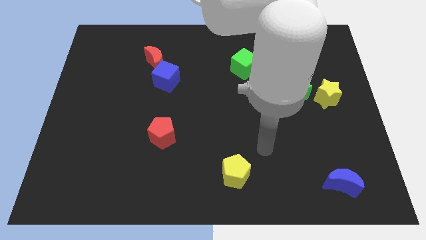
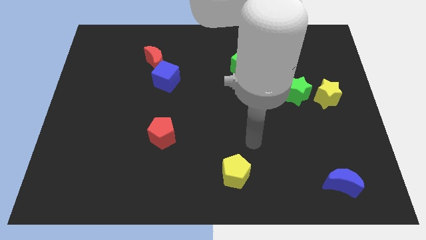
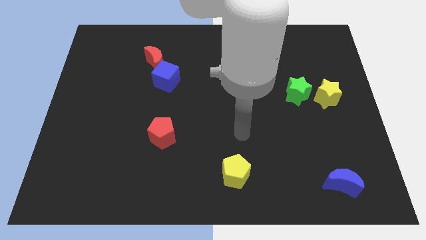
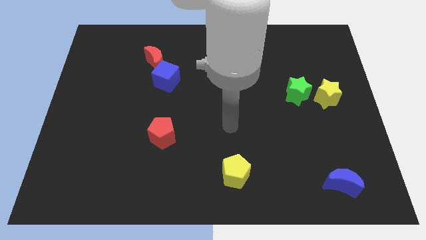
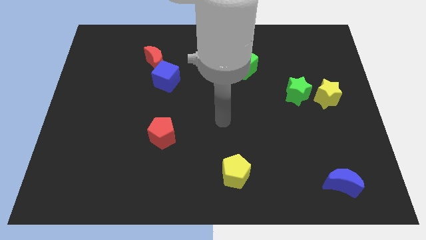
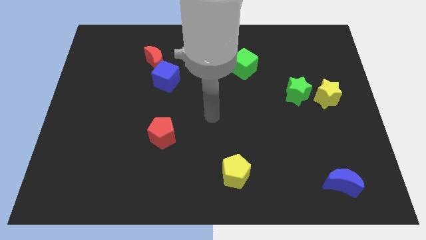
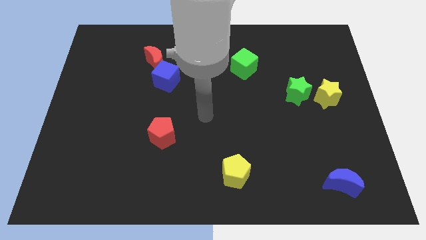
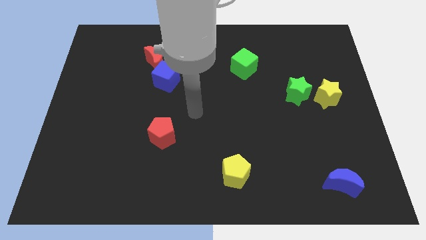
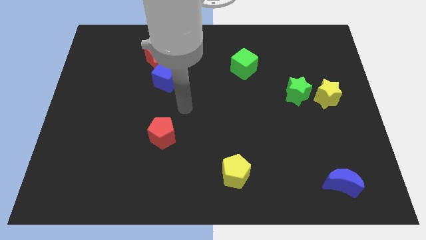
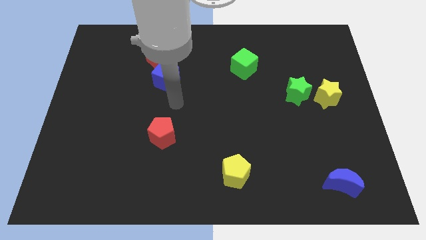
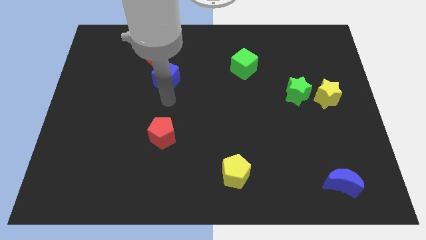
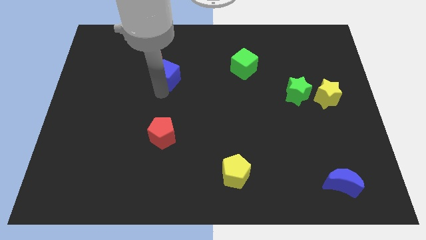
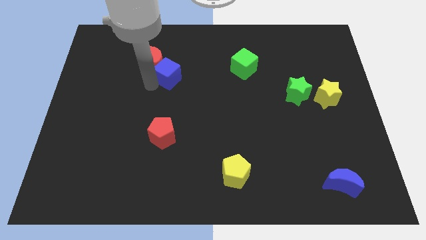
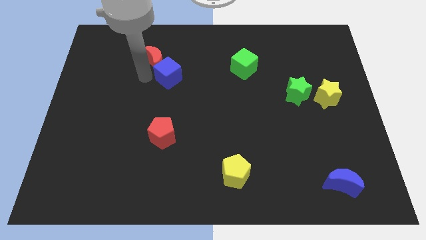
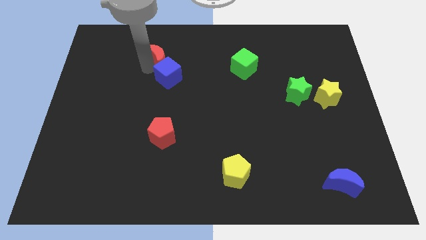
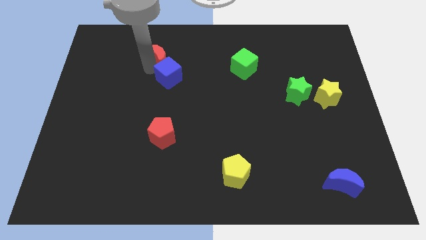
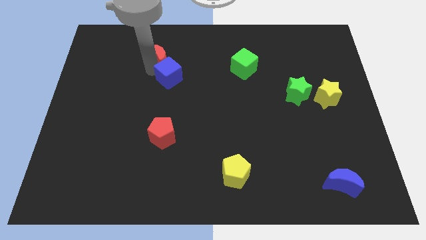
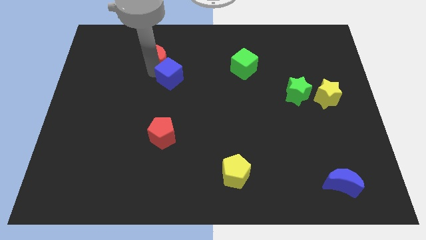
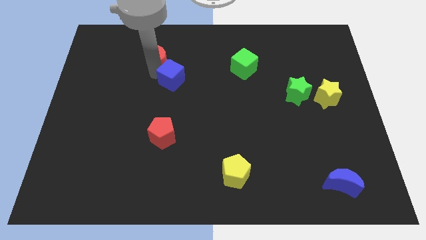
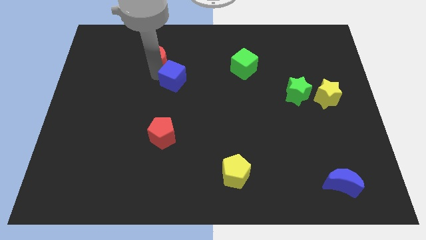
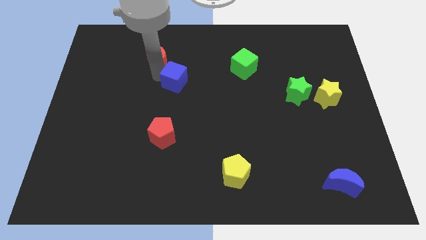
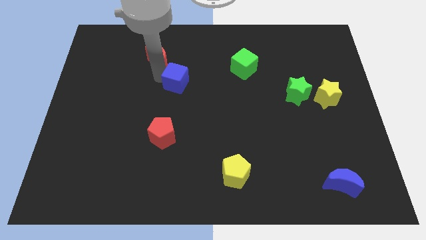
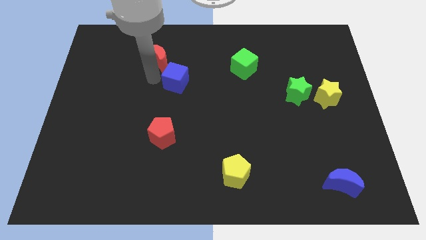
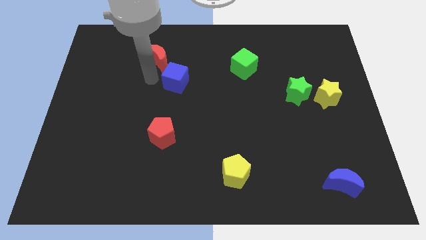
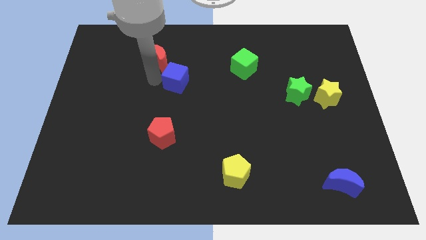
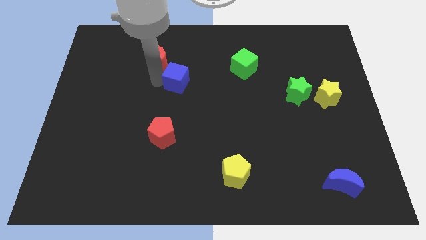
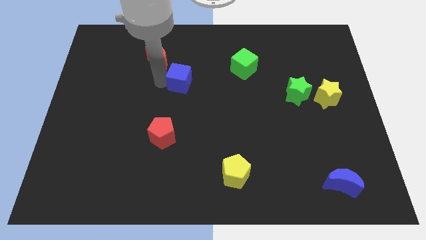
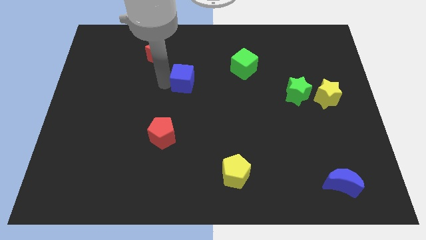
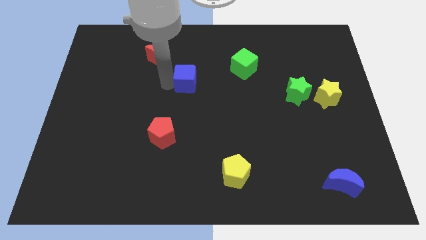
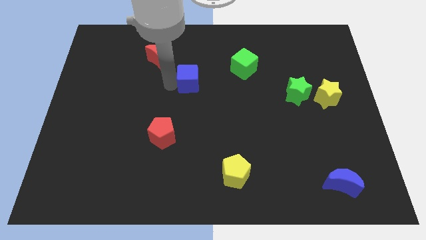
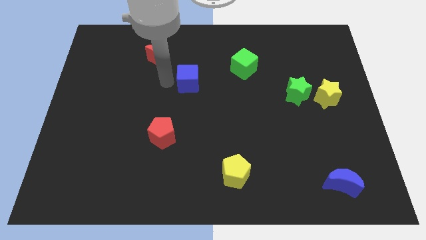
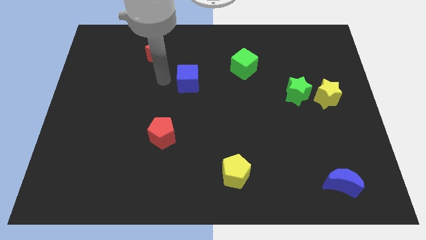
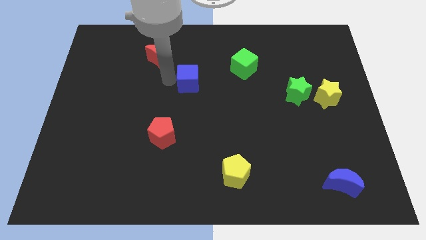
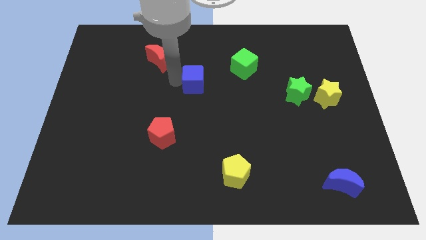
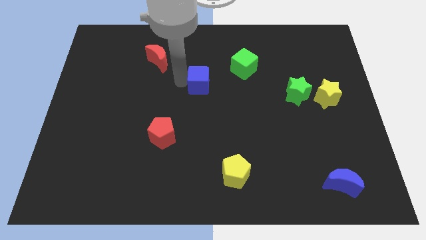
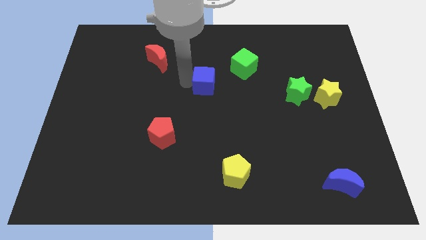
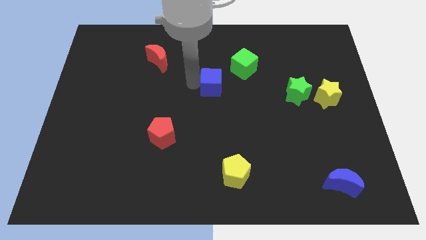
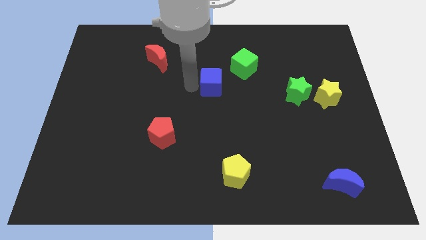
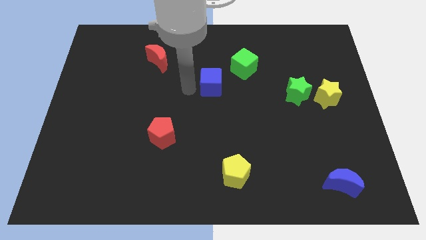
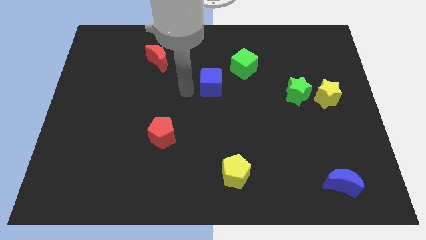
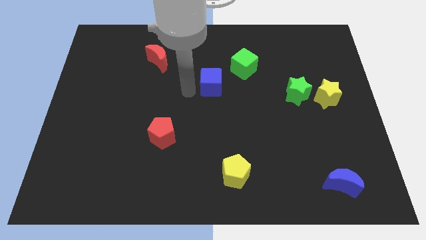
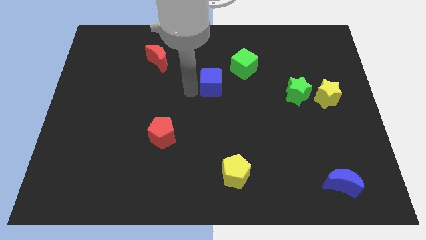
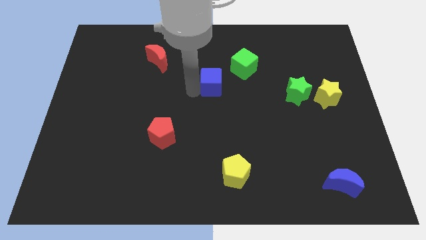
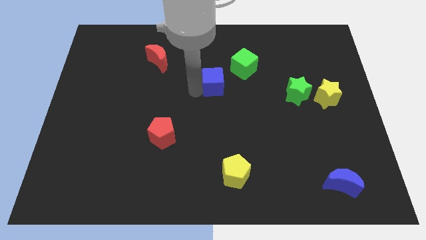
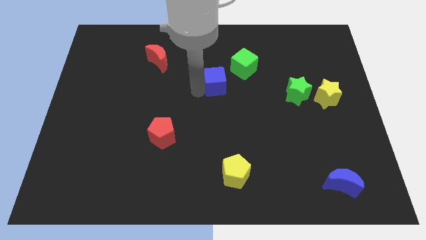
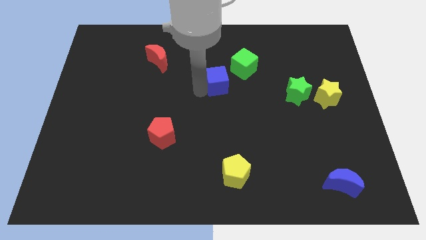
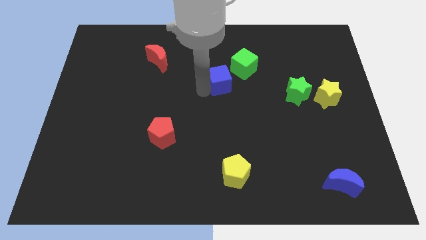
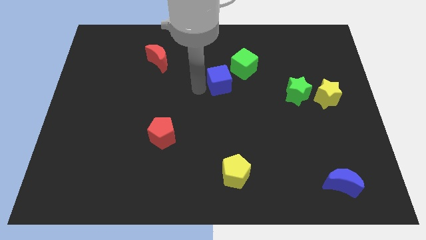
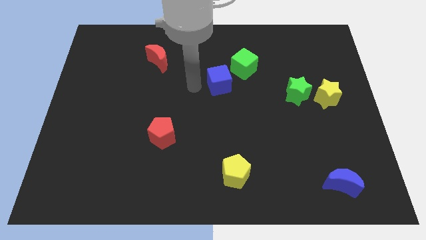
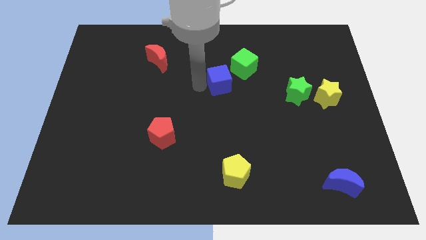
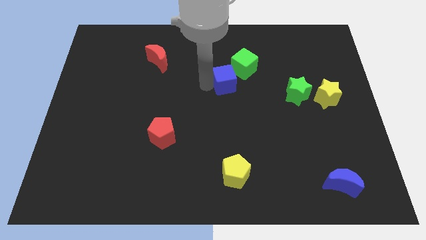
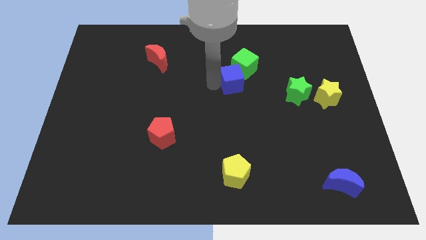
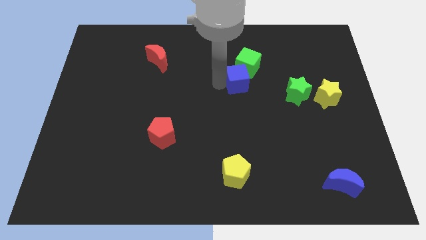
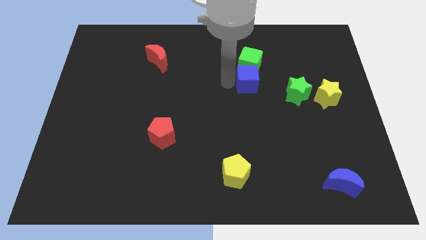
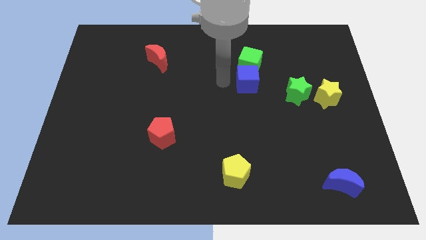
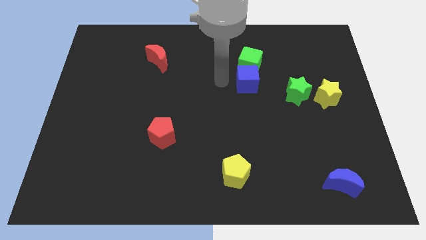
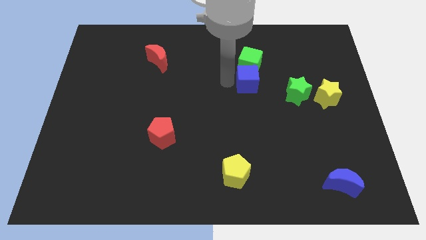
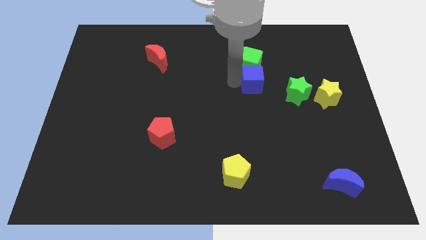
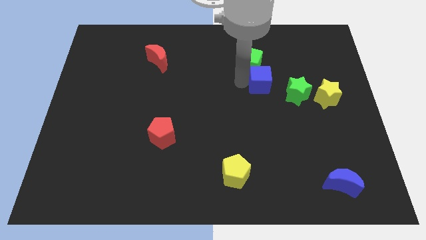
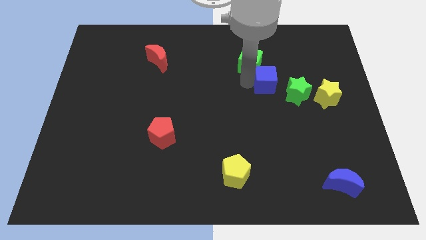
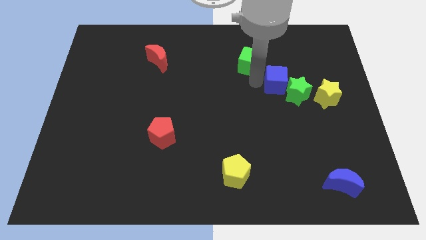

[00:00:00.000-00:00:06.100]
put the blue cube next to the green star

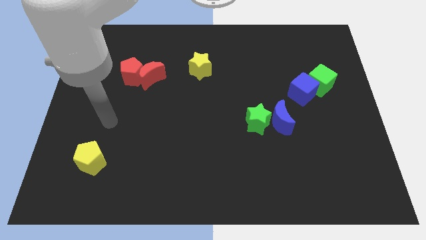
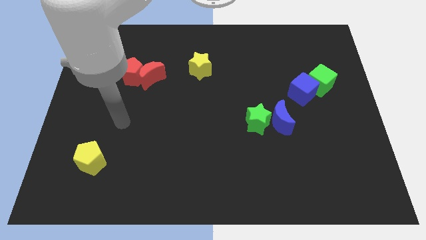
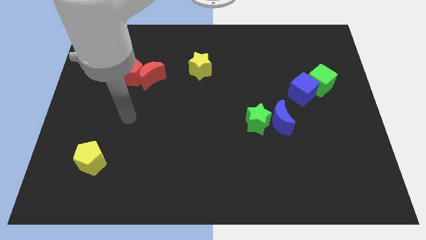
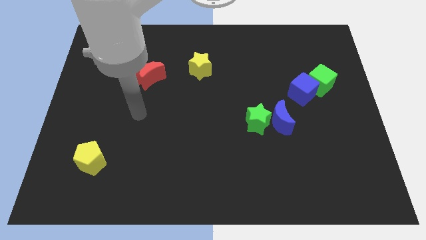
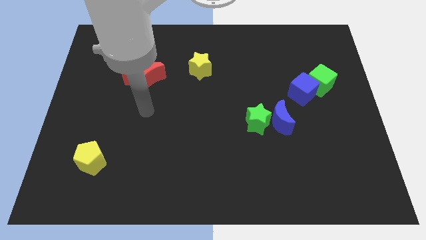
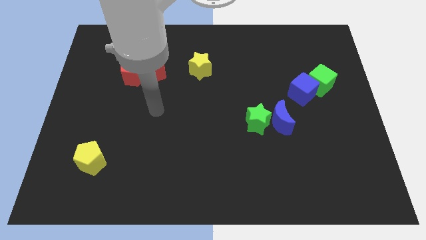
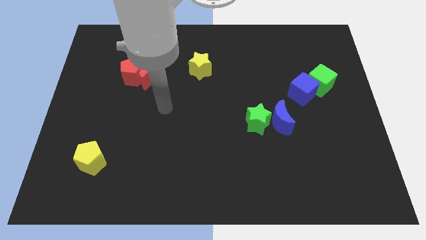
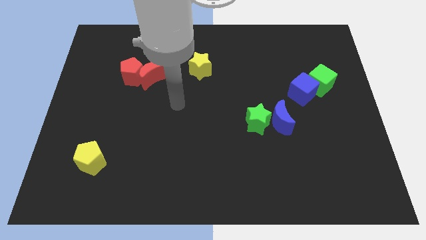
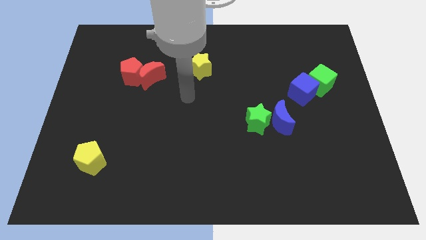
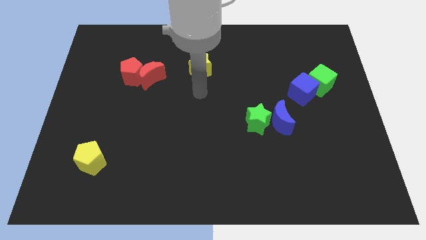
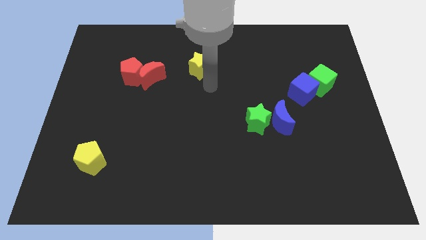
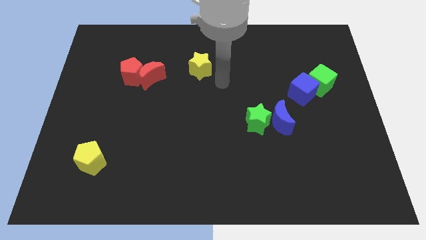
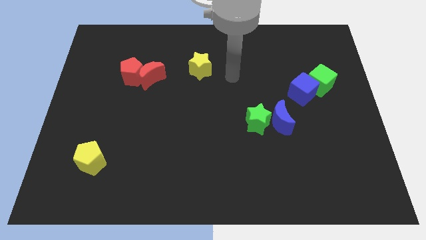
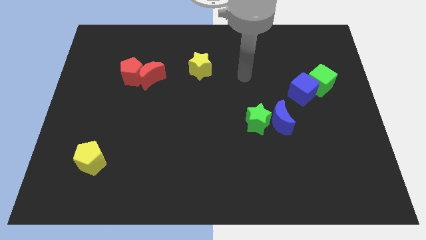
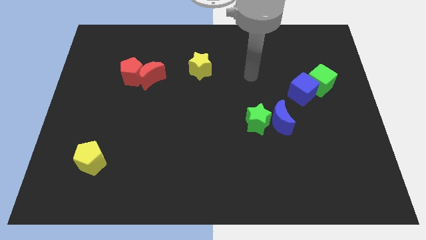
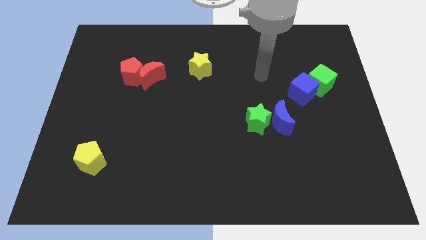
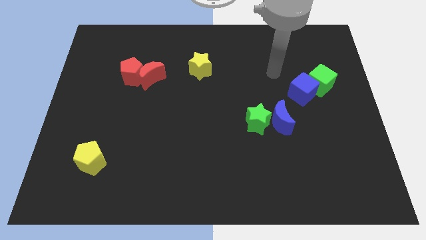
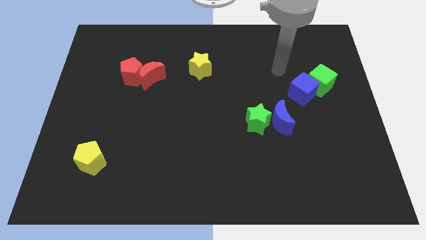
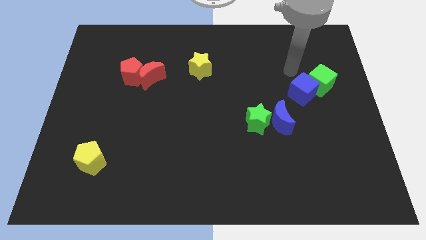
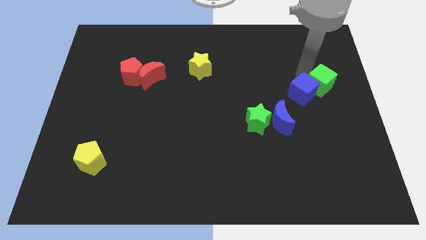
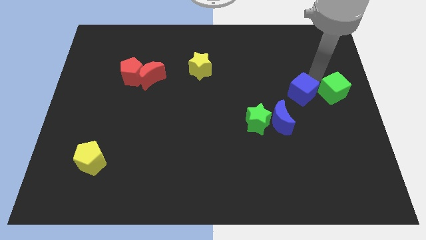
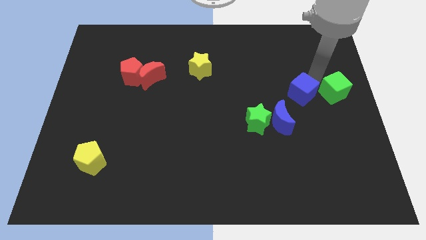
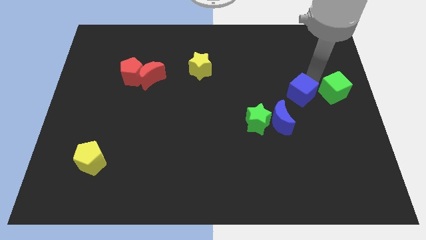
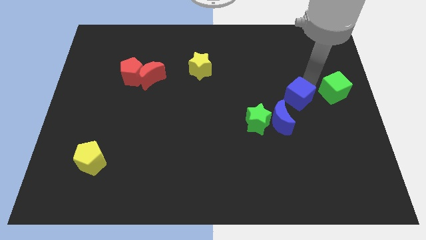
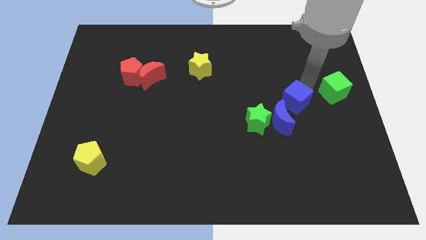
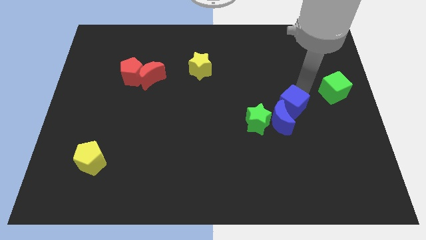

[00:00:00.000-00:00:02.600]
slide the blue cube close to the blue moon
